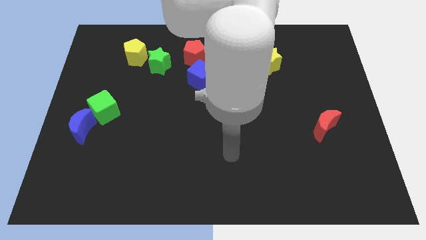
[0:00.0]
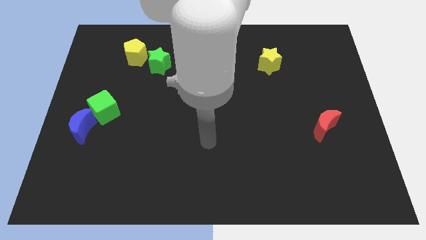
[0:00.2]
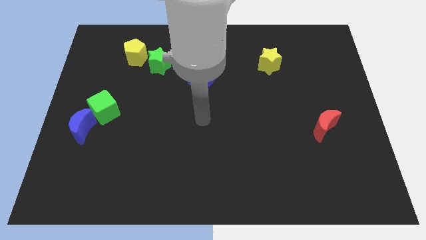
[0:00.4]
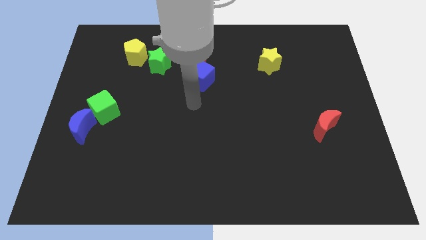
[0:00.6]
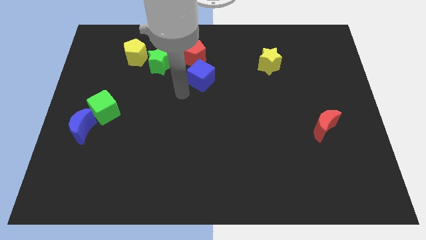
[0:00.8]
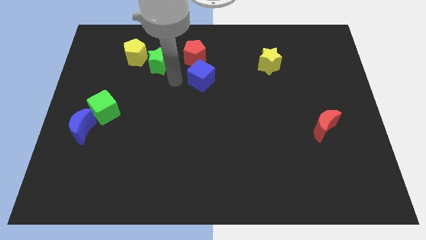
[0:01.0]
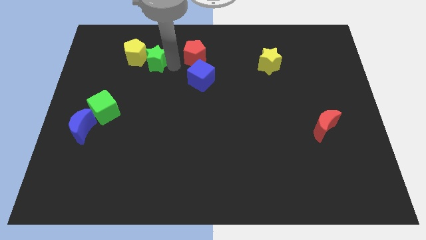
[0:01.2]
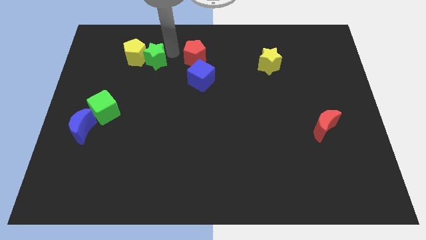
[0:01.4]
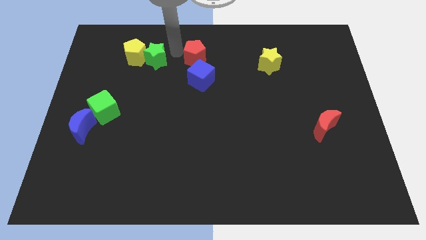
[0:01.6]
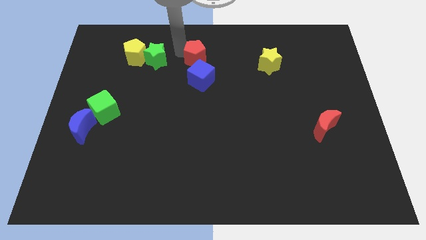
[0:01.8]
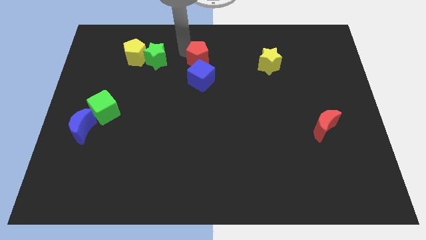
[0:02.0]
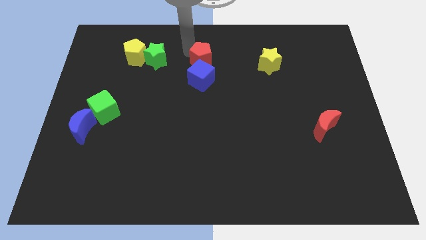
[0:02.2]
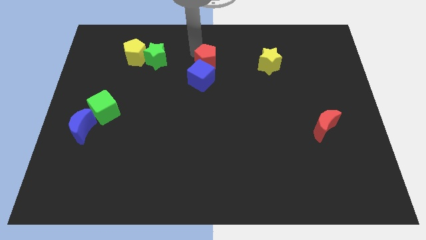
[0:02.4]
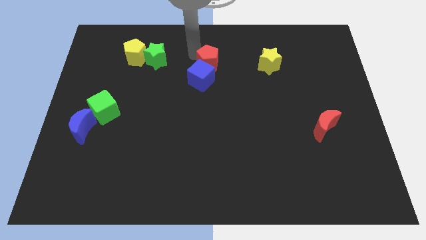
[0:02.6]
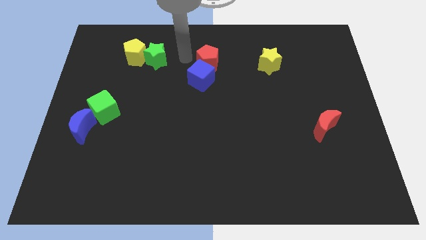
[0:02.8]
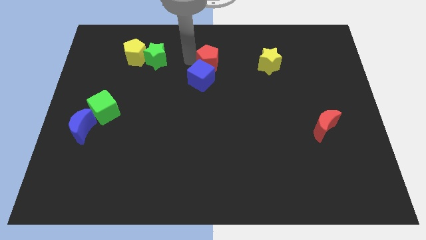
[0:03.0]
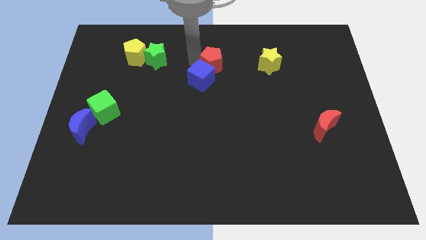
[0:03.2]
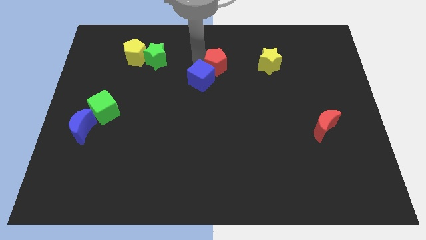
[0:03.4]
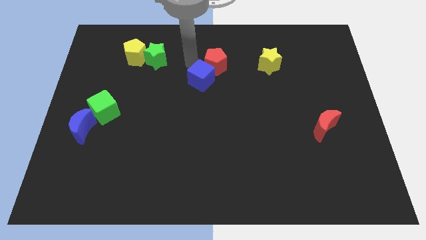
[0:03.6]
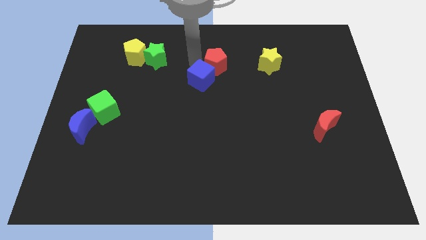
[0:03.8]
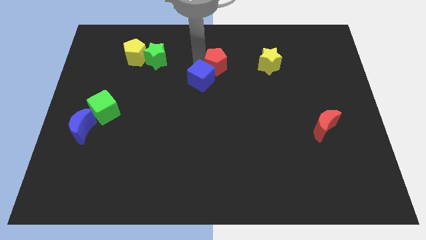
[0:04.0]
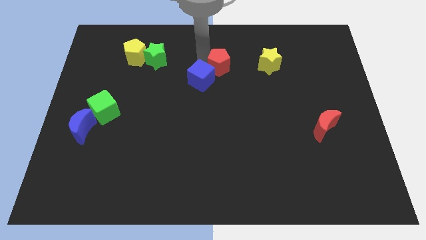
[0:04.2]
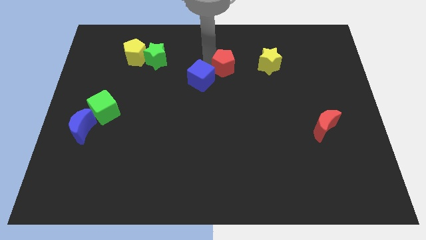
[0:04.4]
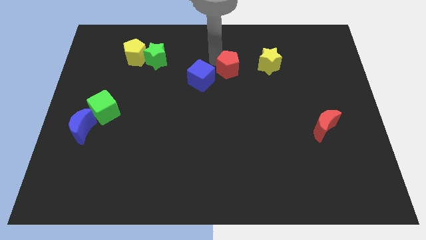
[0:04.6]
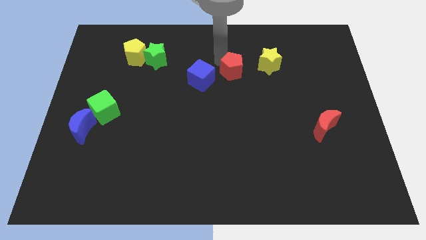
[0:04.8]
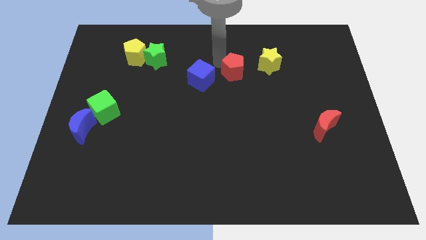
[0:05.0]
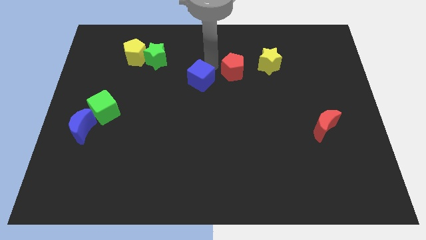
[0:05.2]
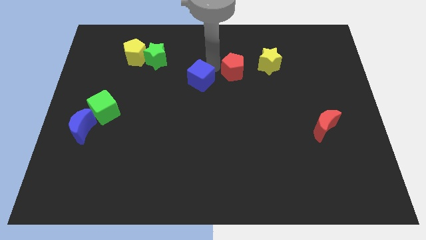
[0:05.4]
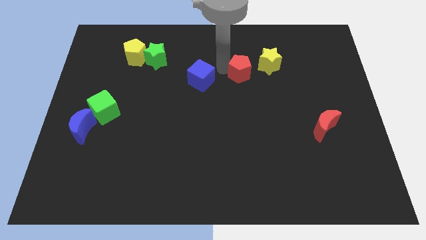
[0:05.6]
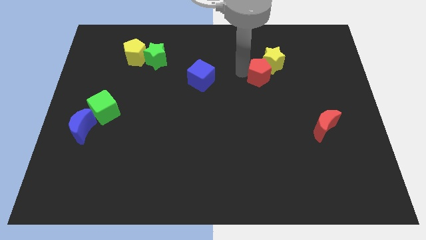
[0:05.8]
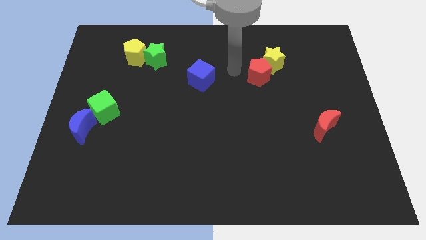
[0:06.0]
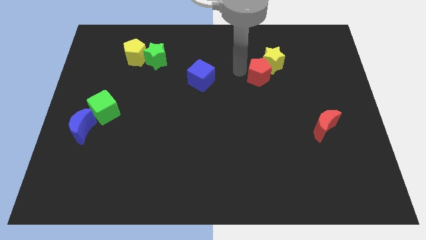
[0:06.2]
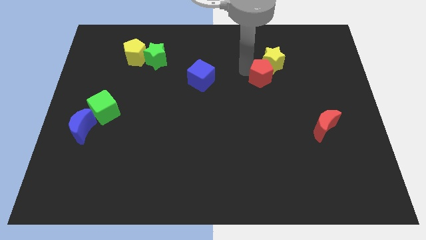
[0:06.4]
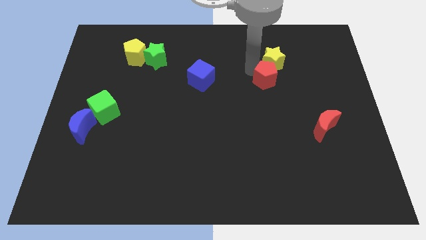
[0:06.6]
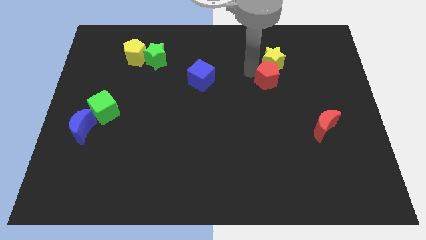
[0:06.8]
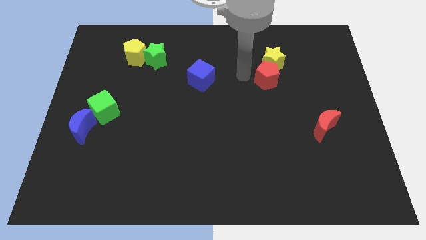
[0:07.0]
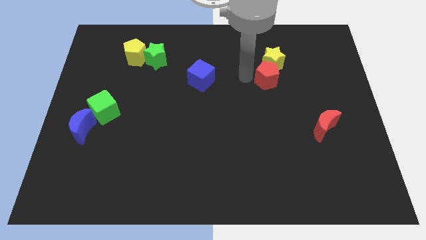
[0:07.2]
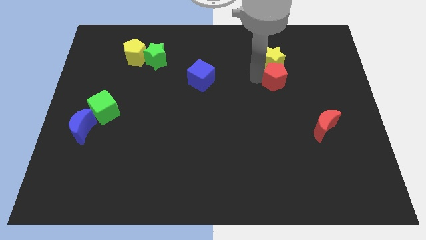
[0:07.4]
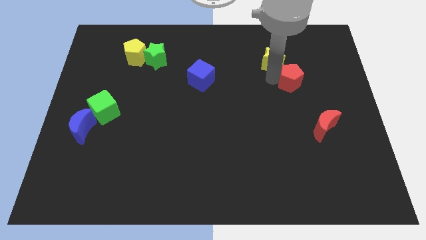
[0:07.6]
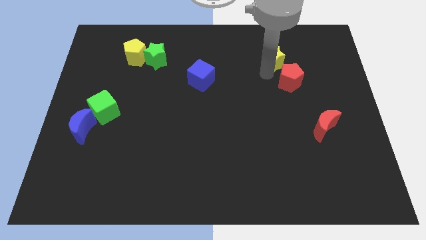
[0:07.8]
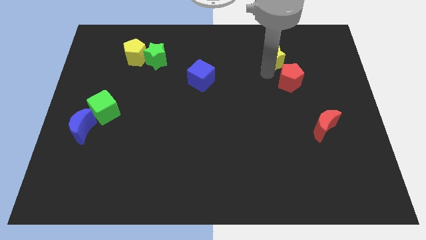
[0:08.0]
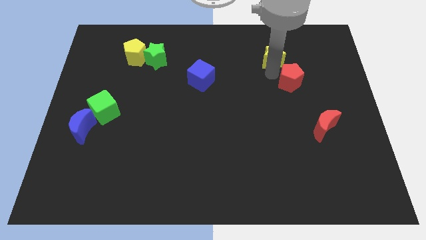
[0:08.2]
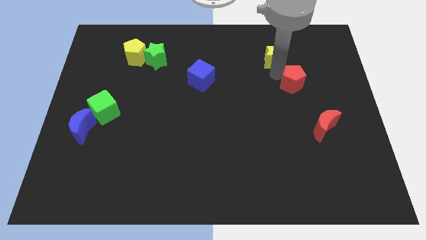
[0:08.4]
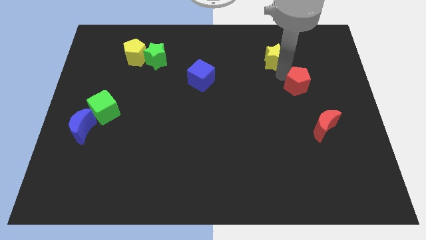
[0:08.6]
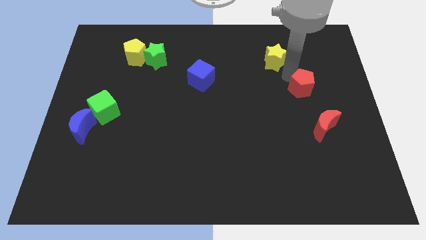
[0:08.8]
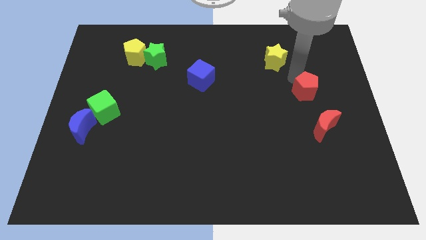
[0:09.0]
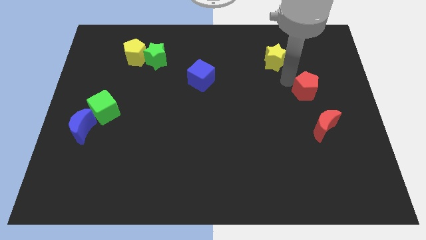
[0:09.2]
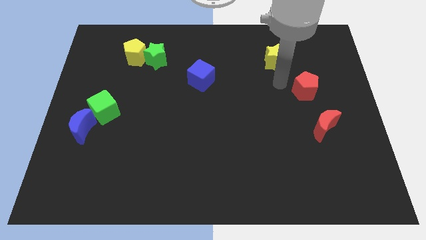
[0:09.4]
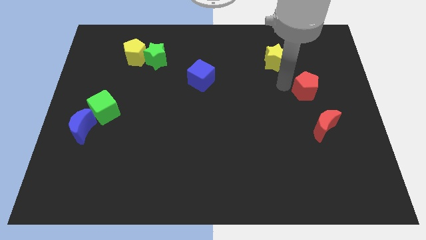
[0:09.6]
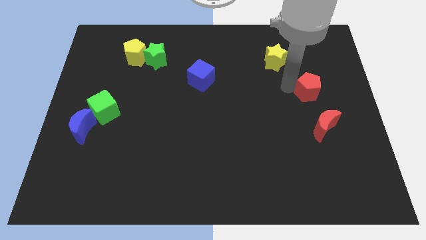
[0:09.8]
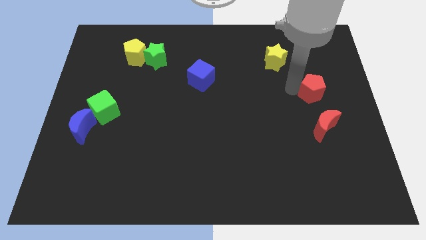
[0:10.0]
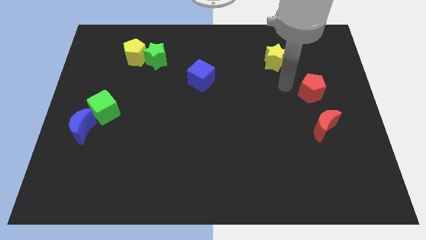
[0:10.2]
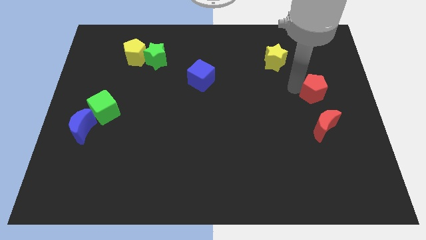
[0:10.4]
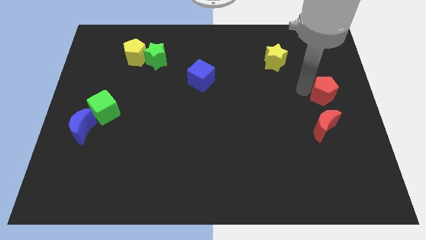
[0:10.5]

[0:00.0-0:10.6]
slide the red pentagon to the center right

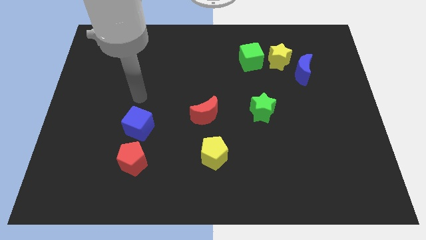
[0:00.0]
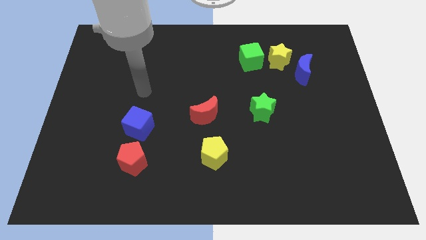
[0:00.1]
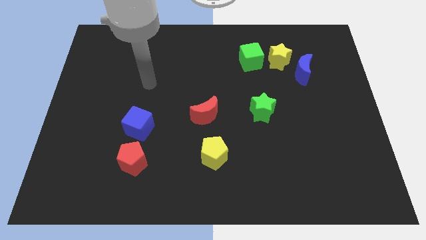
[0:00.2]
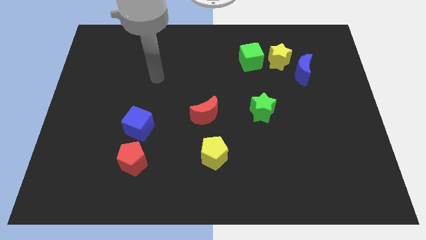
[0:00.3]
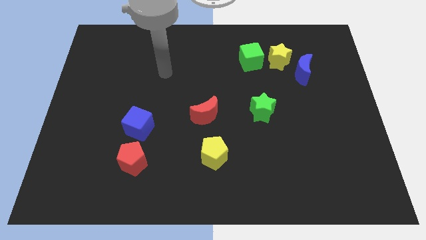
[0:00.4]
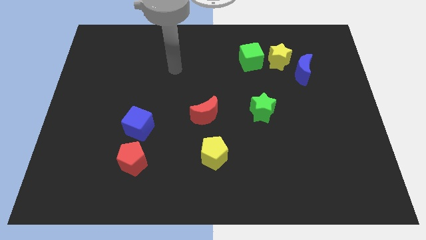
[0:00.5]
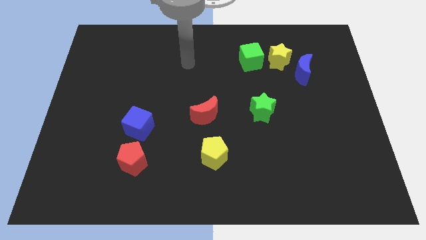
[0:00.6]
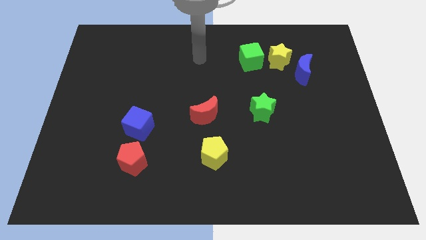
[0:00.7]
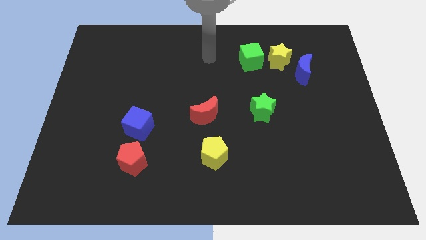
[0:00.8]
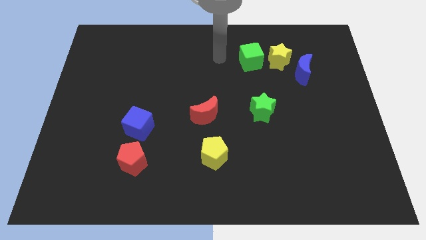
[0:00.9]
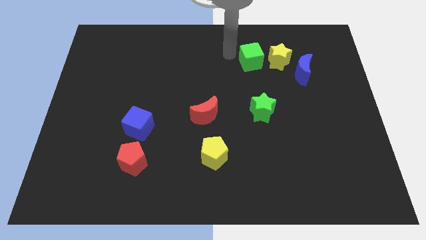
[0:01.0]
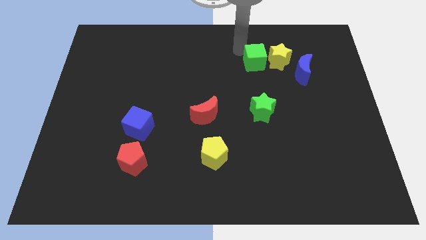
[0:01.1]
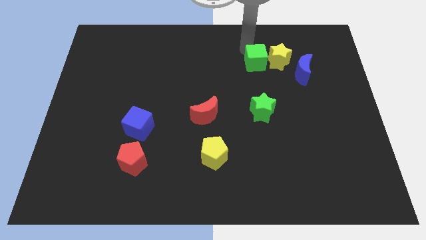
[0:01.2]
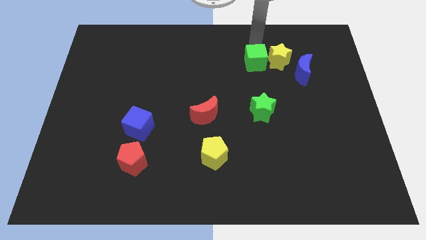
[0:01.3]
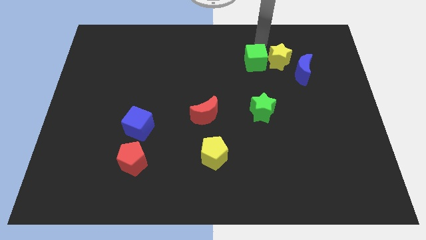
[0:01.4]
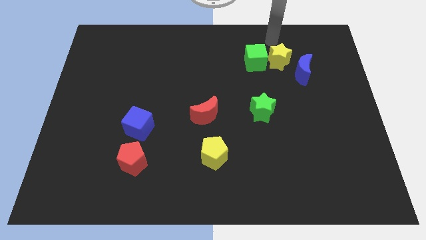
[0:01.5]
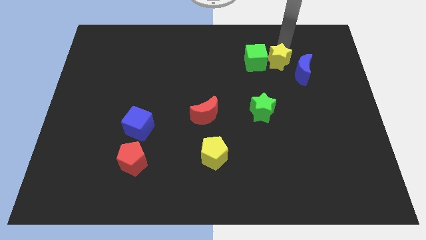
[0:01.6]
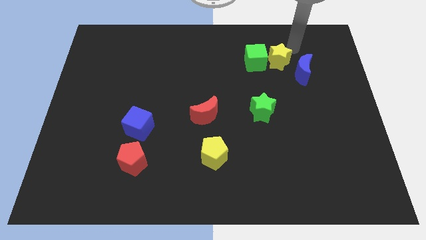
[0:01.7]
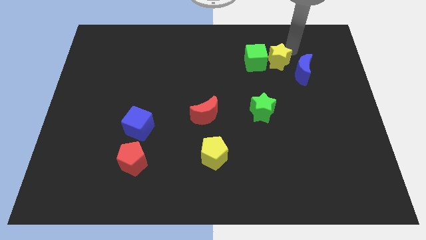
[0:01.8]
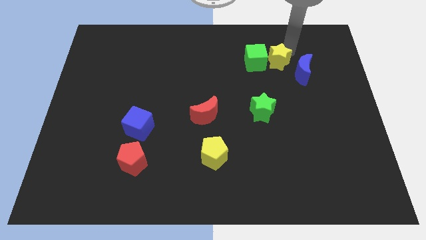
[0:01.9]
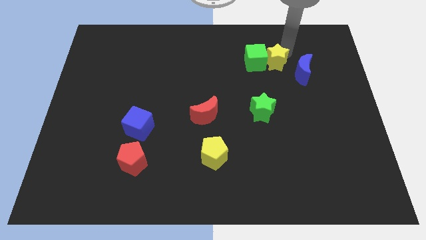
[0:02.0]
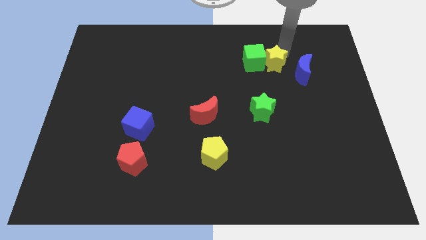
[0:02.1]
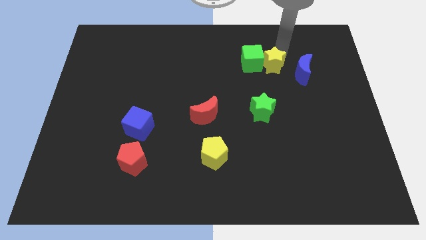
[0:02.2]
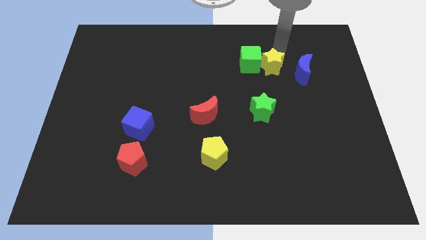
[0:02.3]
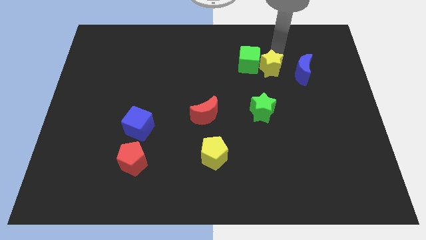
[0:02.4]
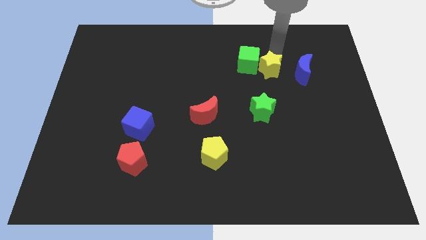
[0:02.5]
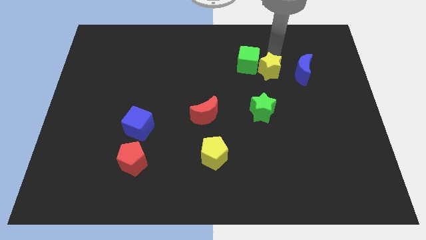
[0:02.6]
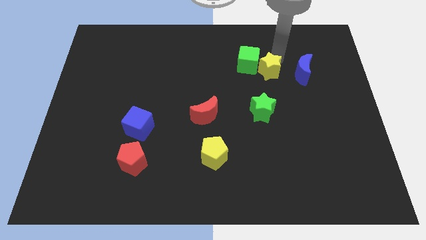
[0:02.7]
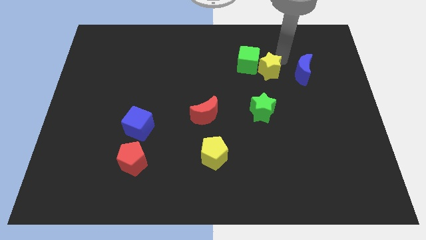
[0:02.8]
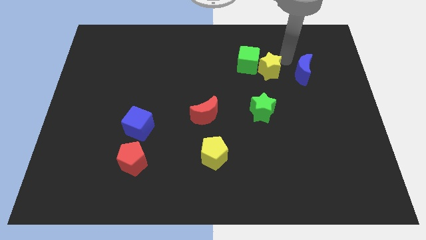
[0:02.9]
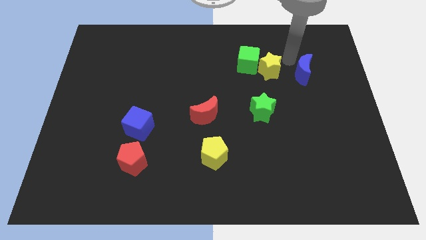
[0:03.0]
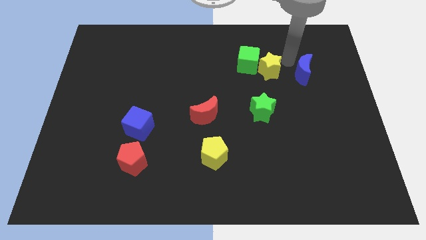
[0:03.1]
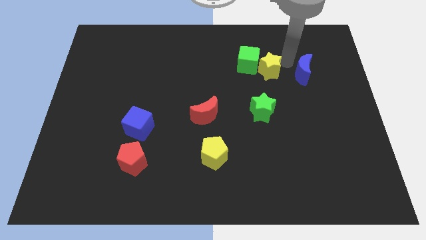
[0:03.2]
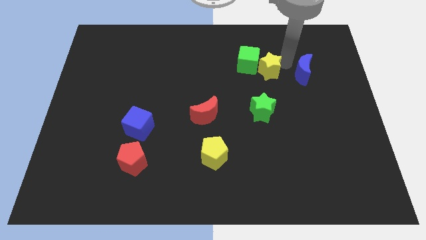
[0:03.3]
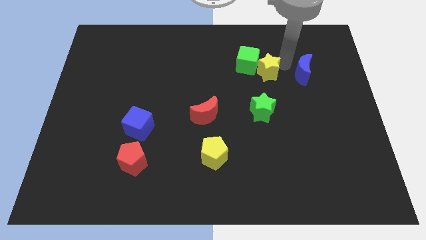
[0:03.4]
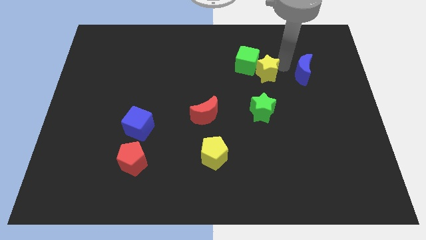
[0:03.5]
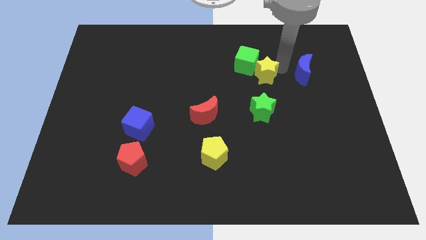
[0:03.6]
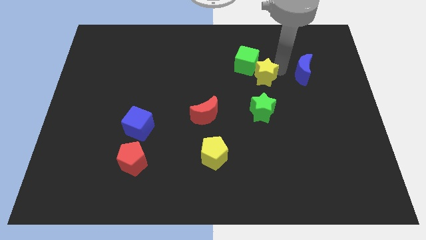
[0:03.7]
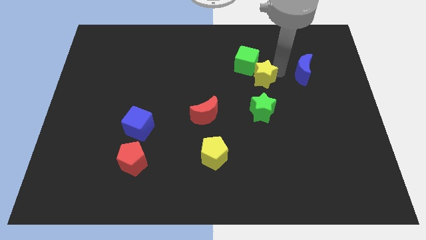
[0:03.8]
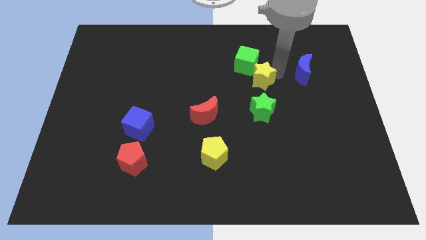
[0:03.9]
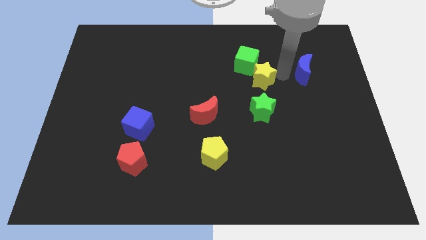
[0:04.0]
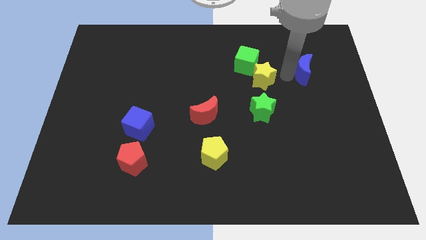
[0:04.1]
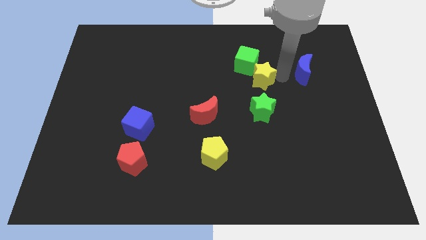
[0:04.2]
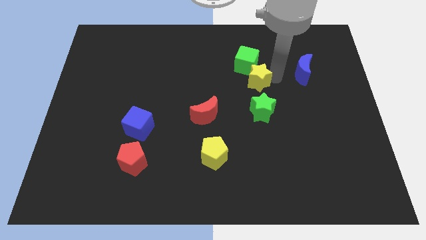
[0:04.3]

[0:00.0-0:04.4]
slide the yellow star to the center
